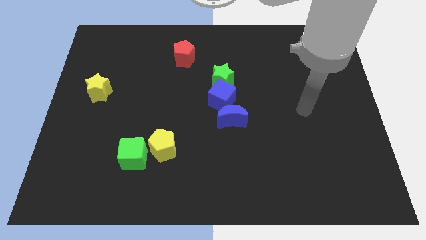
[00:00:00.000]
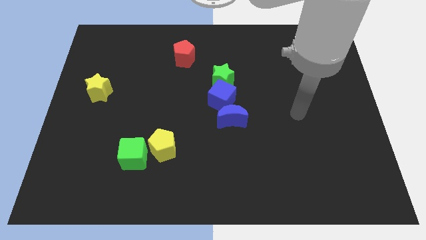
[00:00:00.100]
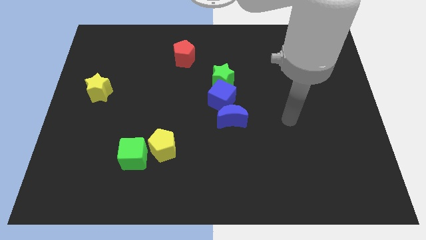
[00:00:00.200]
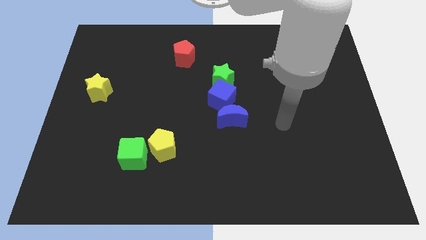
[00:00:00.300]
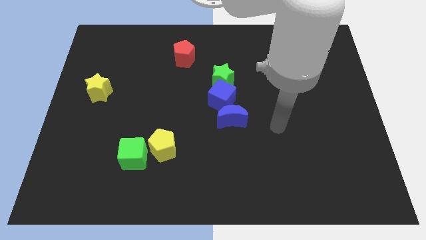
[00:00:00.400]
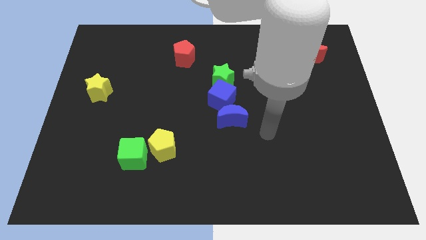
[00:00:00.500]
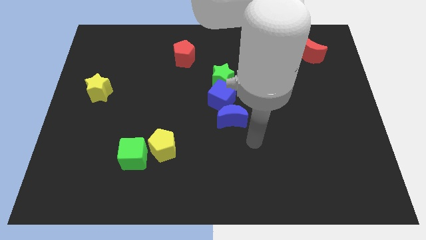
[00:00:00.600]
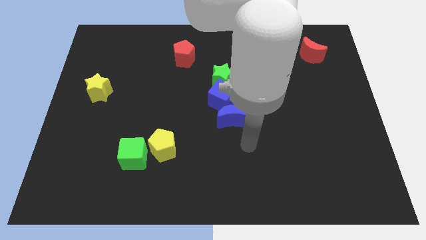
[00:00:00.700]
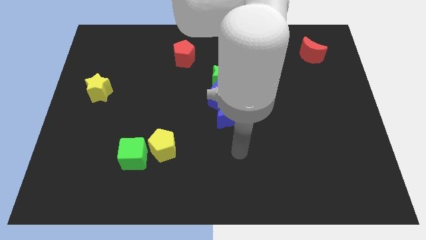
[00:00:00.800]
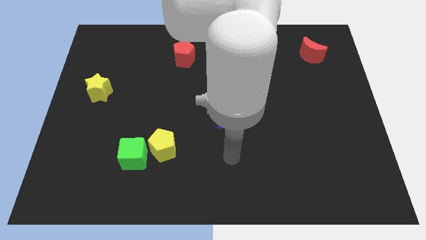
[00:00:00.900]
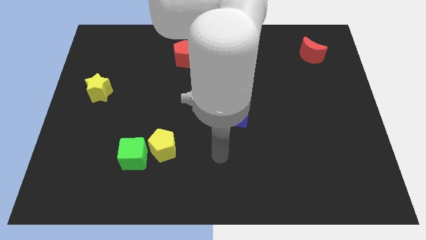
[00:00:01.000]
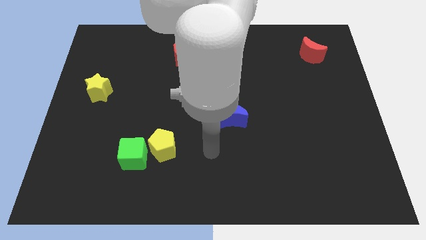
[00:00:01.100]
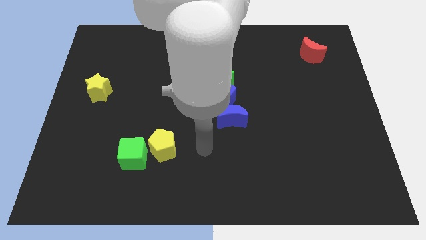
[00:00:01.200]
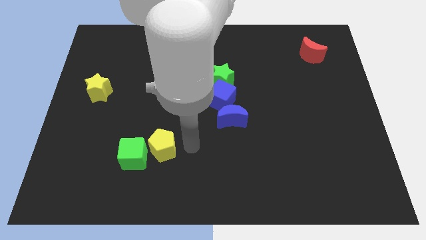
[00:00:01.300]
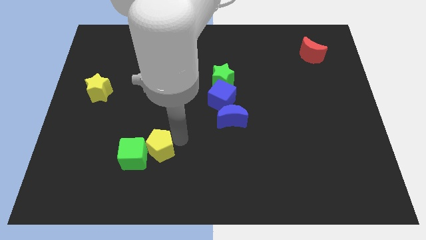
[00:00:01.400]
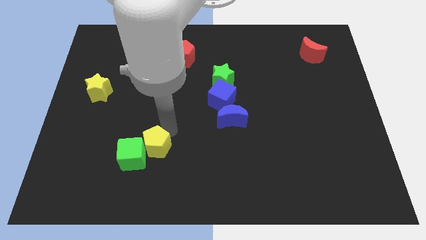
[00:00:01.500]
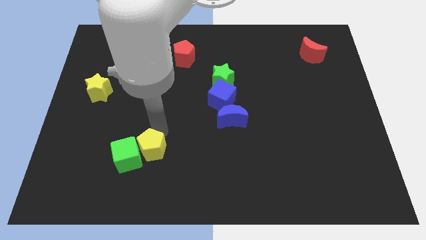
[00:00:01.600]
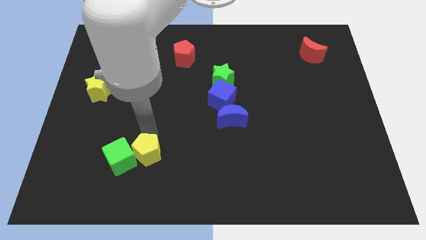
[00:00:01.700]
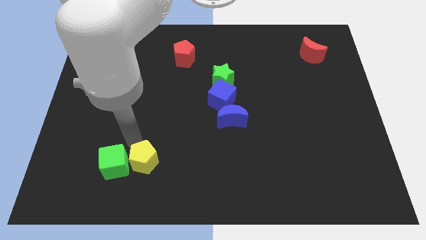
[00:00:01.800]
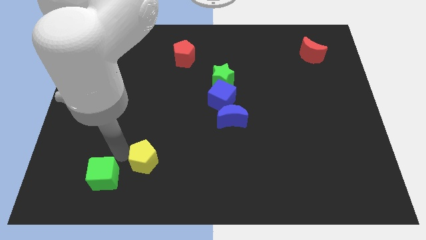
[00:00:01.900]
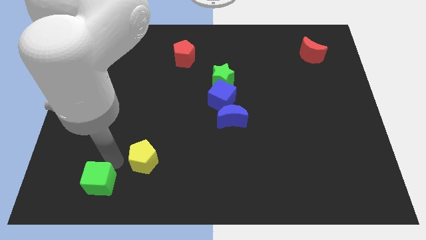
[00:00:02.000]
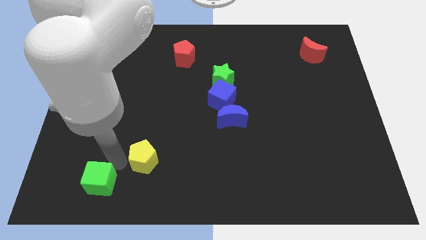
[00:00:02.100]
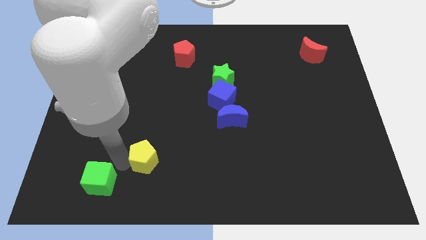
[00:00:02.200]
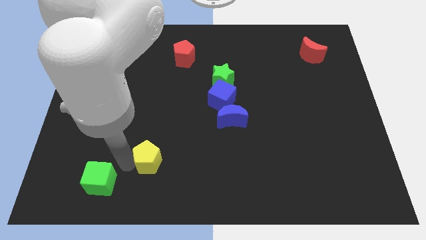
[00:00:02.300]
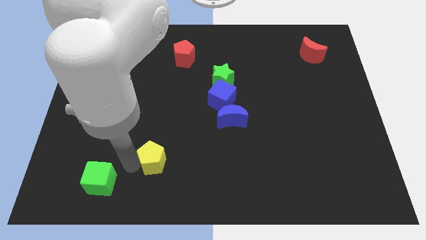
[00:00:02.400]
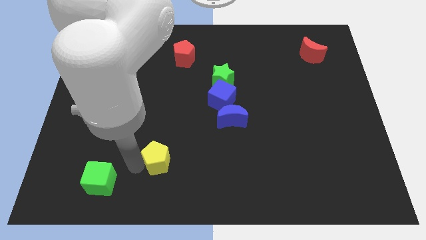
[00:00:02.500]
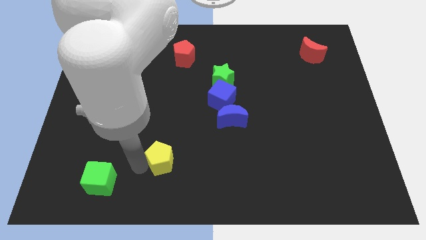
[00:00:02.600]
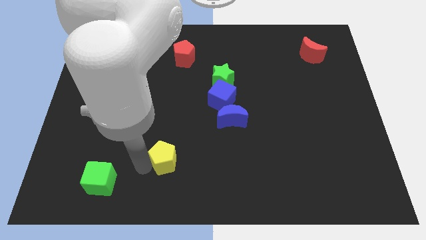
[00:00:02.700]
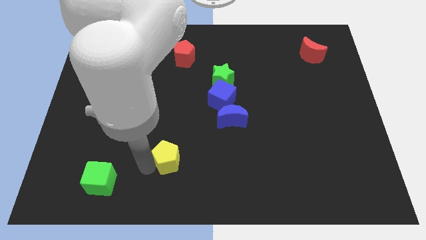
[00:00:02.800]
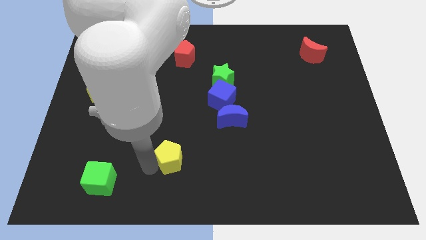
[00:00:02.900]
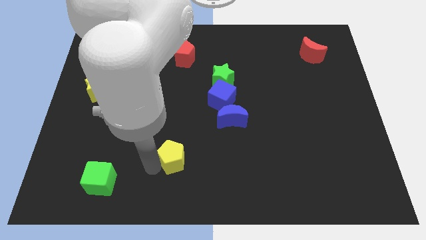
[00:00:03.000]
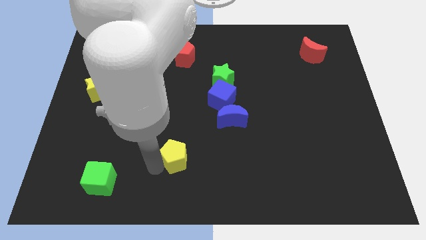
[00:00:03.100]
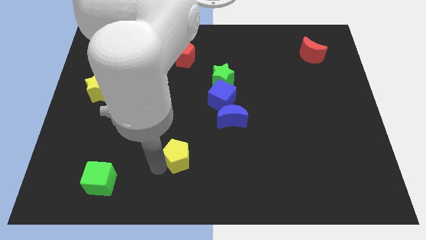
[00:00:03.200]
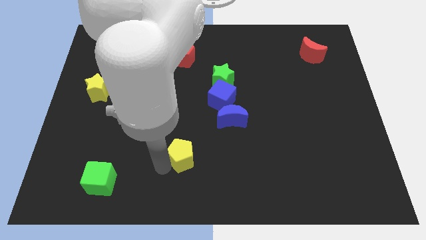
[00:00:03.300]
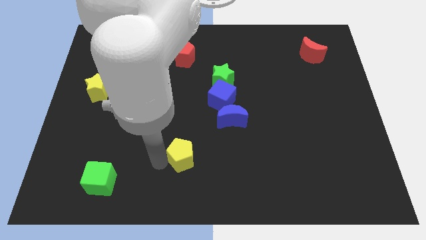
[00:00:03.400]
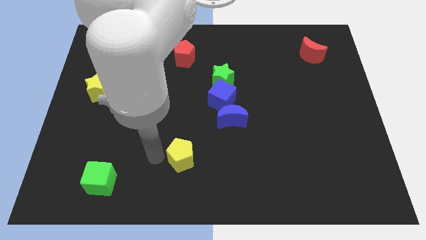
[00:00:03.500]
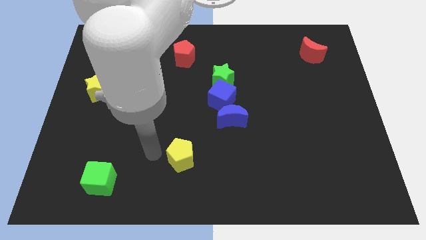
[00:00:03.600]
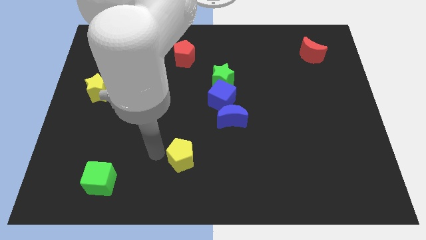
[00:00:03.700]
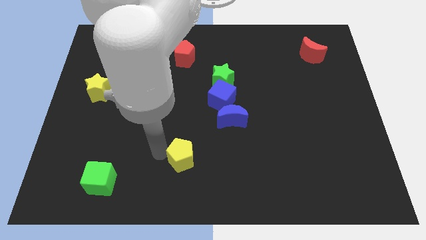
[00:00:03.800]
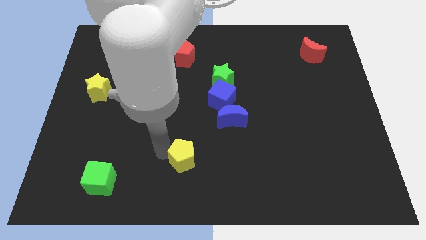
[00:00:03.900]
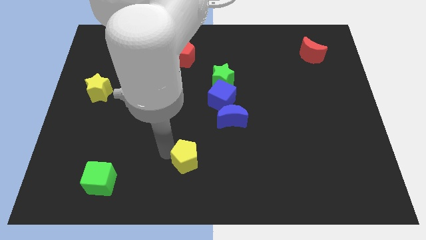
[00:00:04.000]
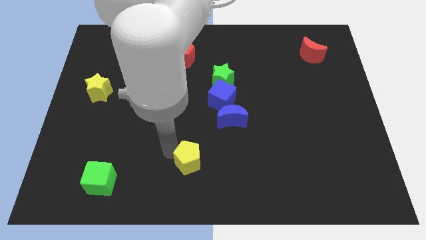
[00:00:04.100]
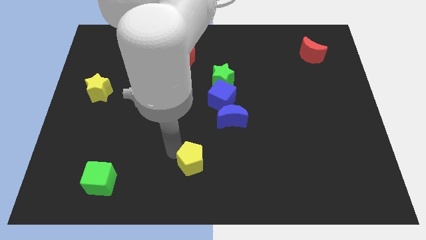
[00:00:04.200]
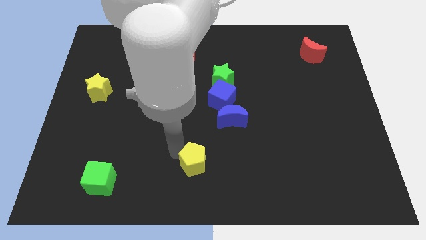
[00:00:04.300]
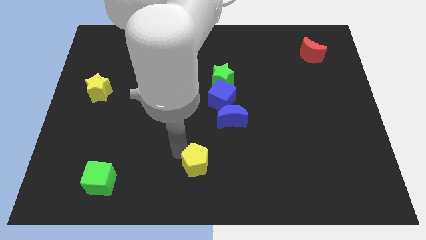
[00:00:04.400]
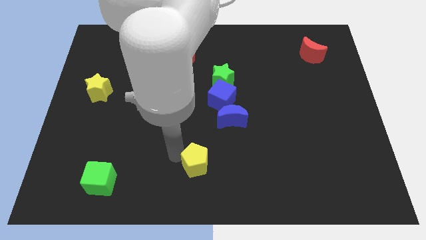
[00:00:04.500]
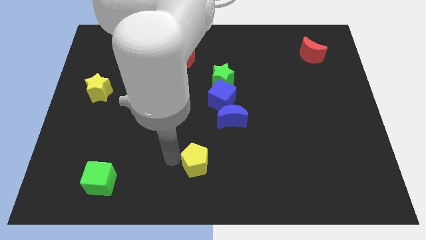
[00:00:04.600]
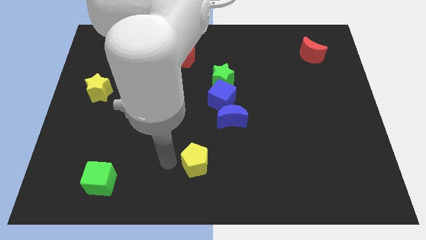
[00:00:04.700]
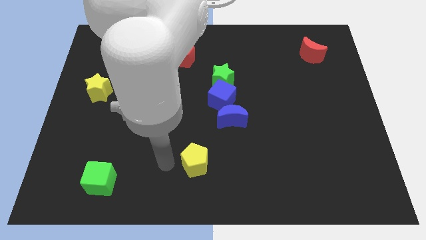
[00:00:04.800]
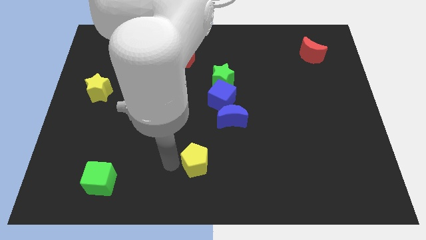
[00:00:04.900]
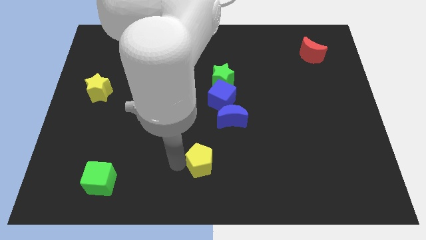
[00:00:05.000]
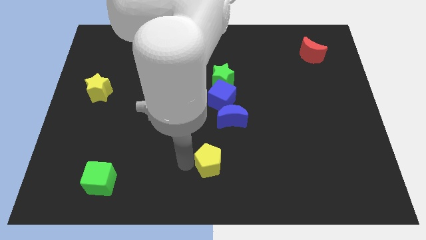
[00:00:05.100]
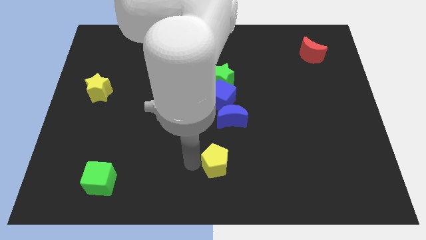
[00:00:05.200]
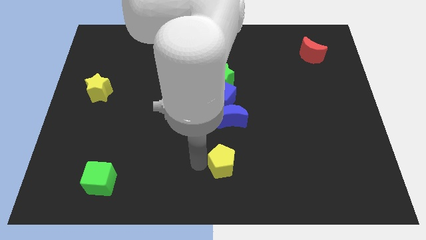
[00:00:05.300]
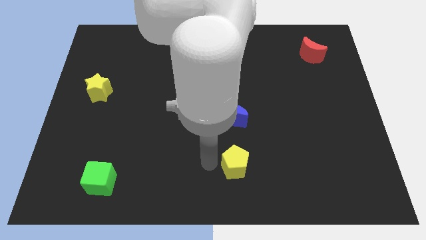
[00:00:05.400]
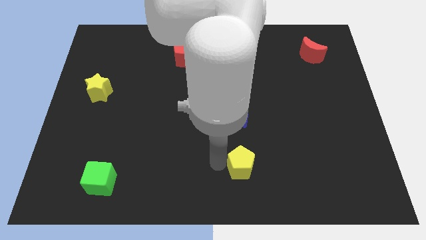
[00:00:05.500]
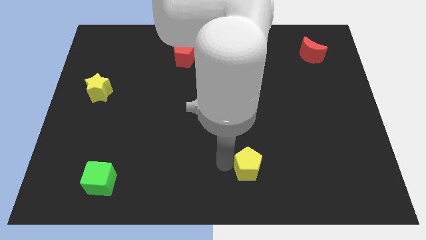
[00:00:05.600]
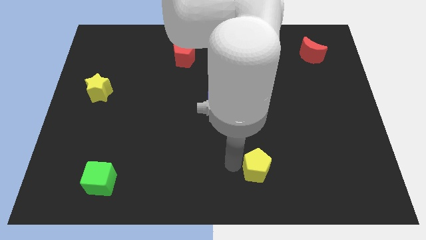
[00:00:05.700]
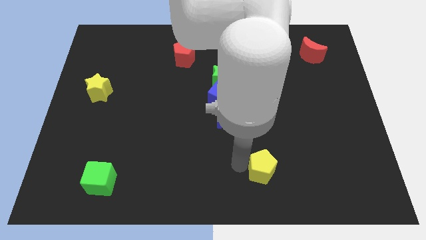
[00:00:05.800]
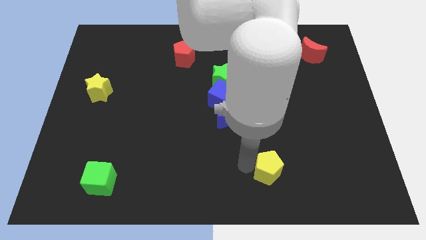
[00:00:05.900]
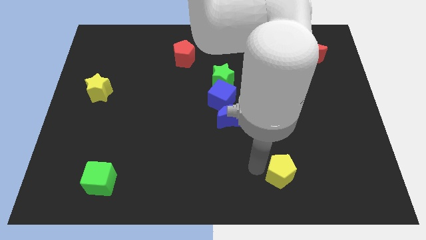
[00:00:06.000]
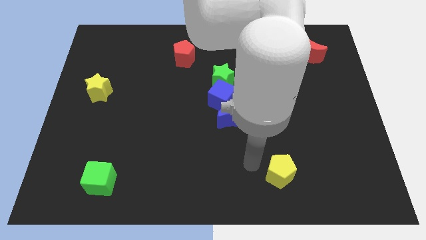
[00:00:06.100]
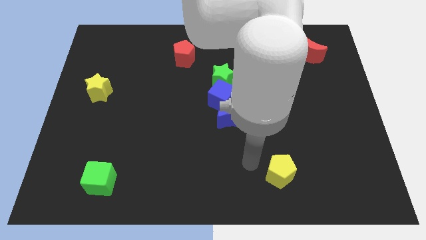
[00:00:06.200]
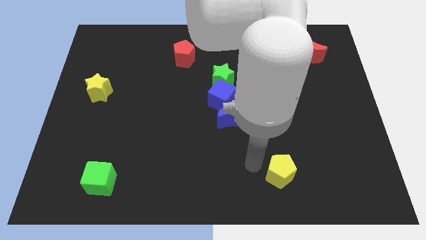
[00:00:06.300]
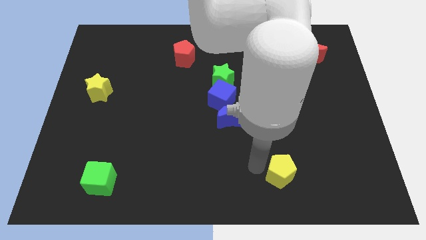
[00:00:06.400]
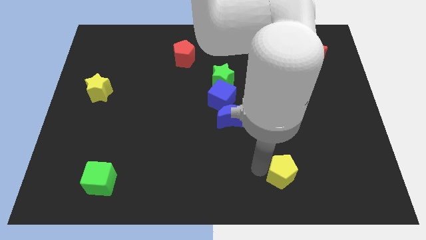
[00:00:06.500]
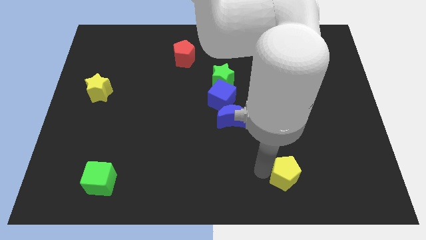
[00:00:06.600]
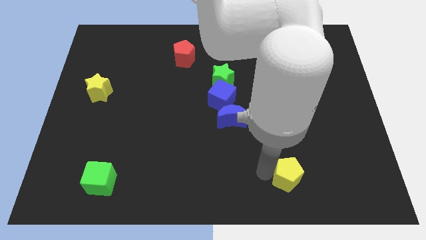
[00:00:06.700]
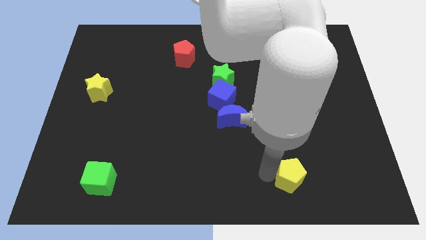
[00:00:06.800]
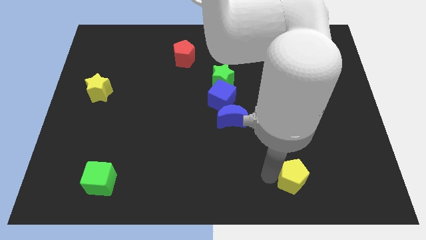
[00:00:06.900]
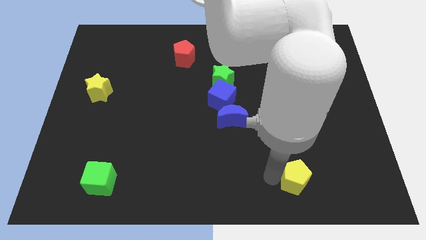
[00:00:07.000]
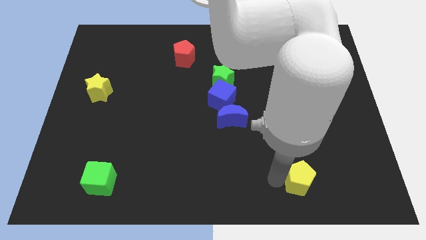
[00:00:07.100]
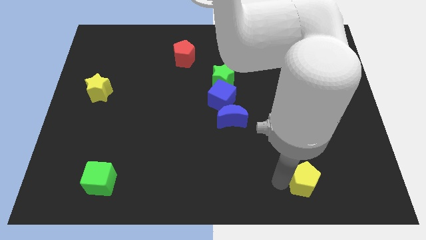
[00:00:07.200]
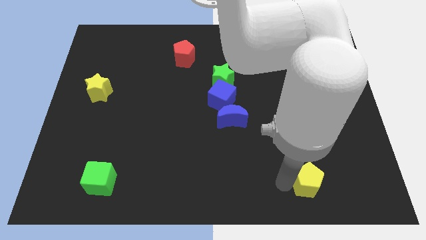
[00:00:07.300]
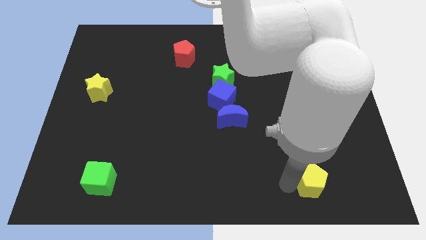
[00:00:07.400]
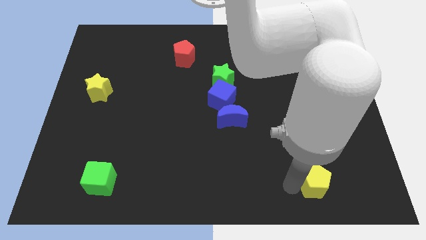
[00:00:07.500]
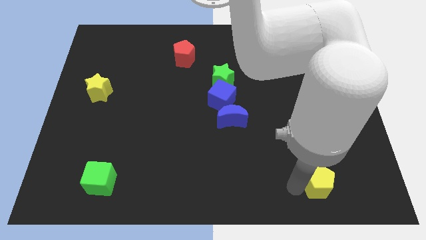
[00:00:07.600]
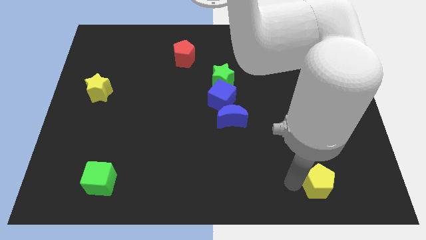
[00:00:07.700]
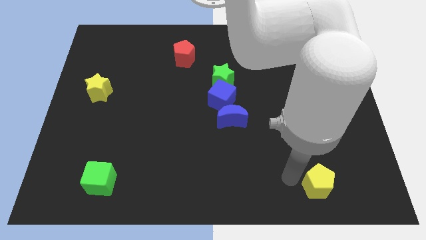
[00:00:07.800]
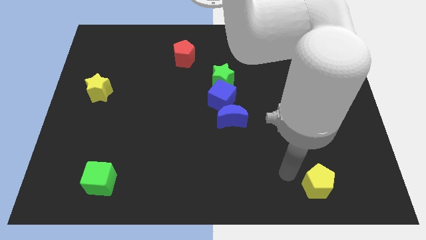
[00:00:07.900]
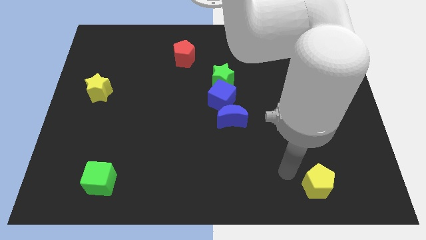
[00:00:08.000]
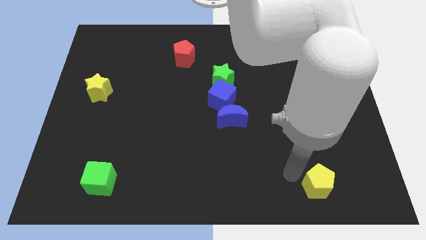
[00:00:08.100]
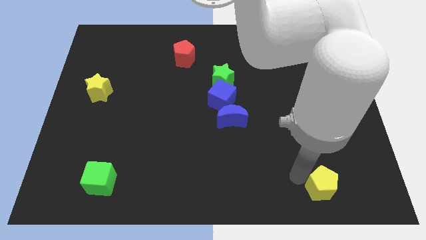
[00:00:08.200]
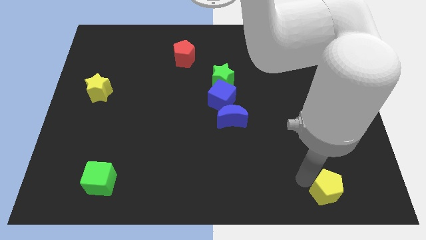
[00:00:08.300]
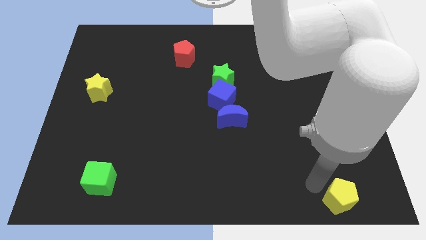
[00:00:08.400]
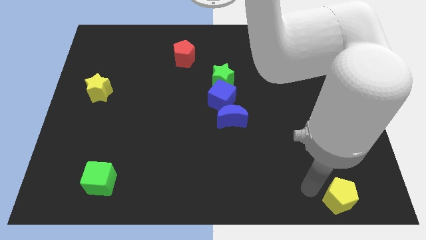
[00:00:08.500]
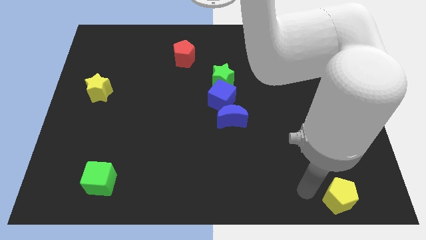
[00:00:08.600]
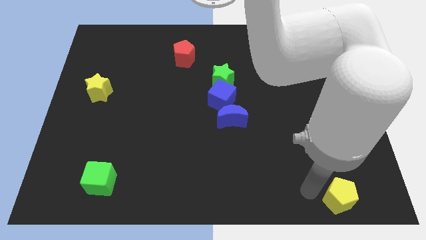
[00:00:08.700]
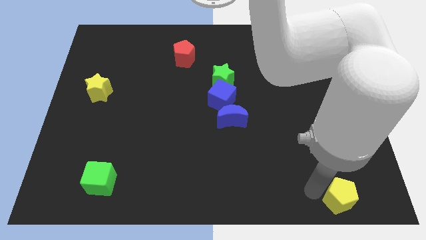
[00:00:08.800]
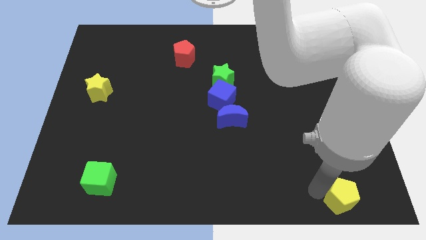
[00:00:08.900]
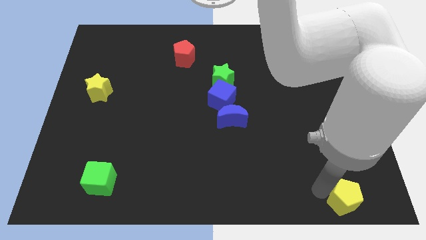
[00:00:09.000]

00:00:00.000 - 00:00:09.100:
put the yellow pentagon to the bottom right
